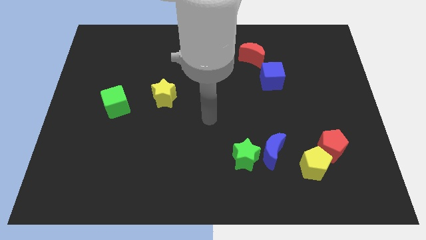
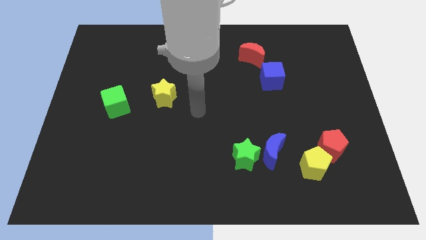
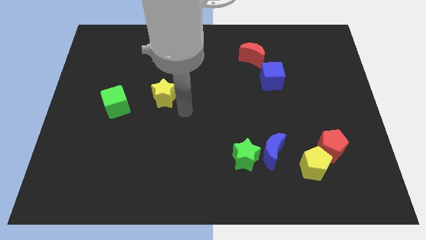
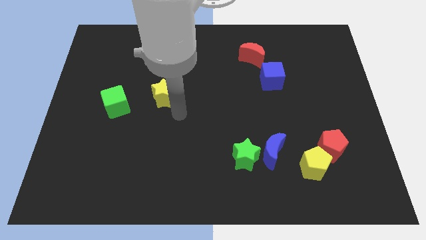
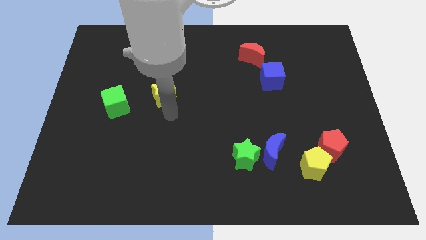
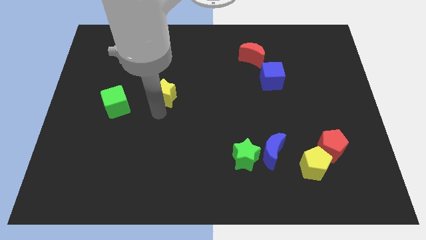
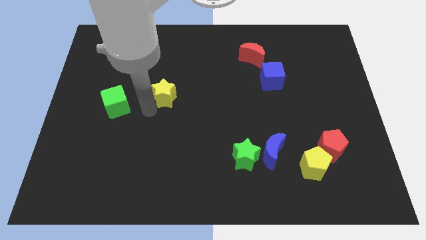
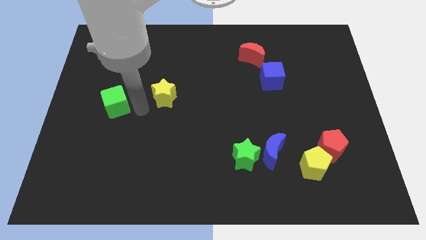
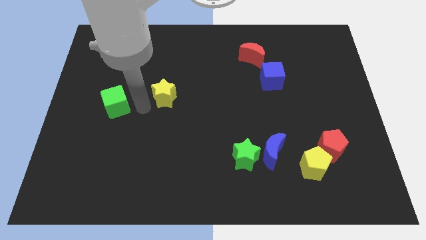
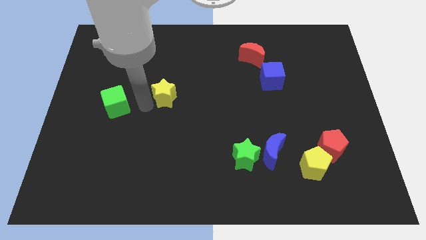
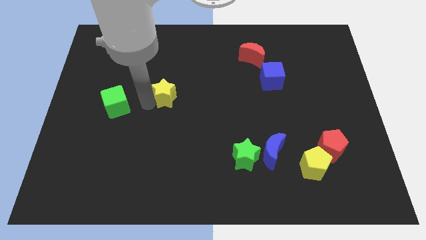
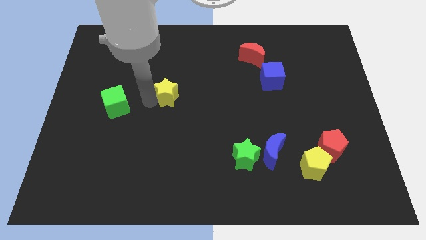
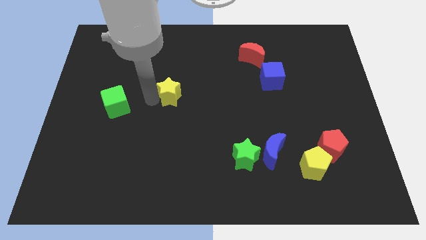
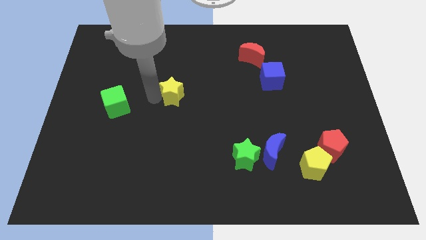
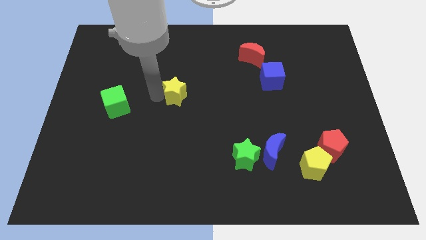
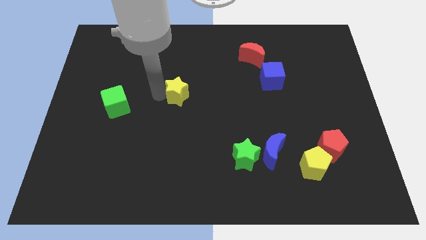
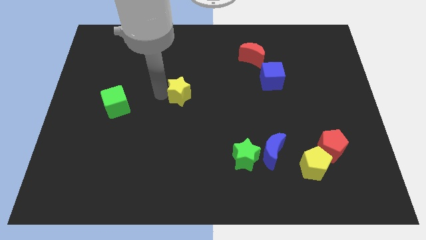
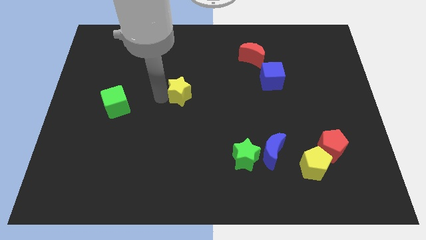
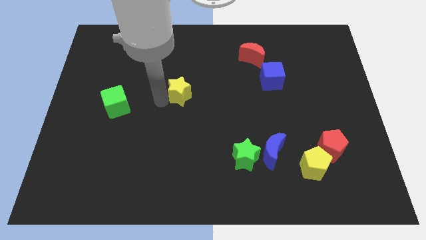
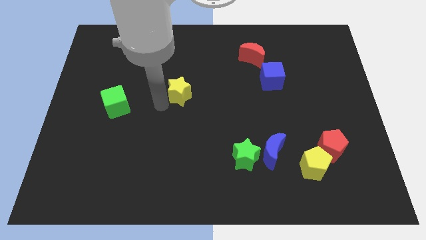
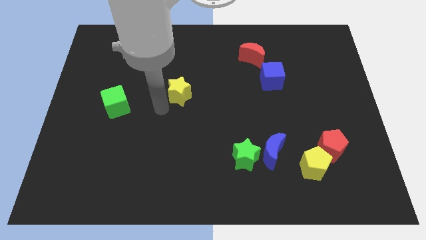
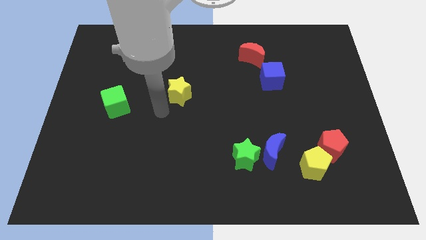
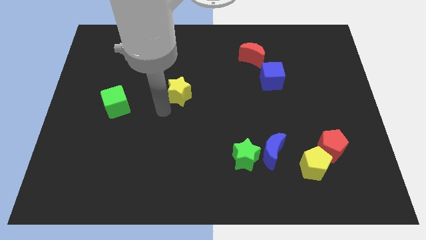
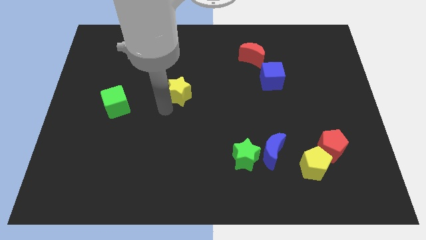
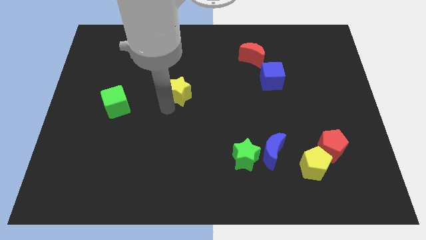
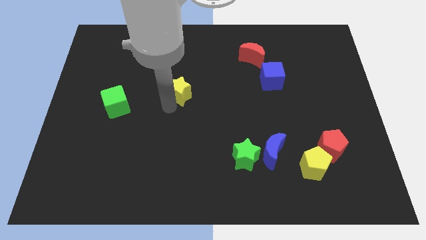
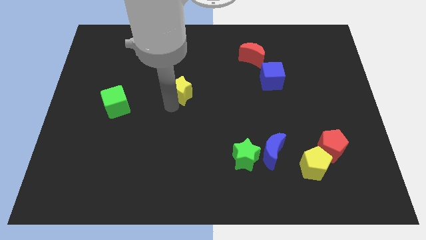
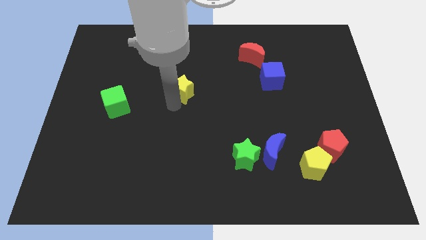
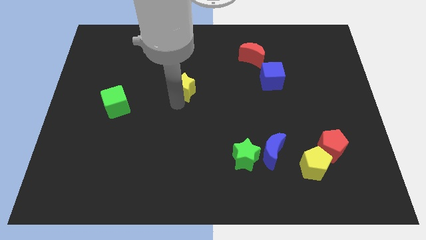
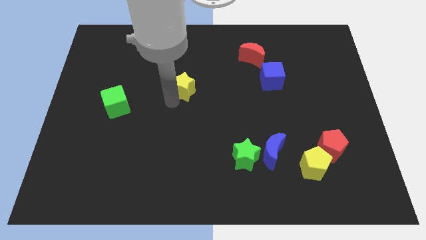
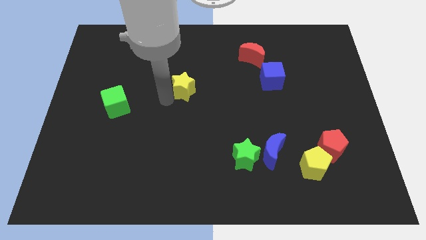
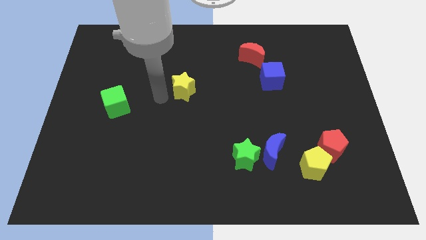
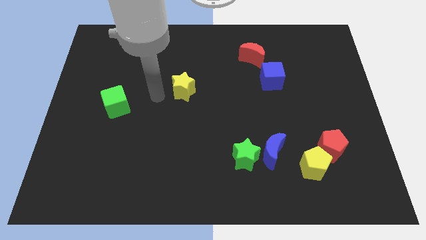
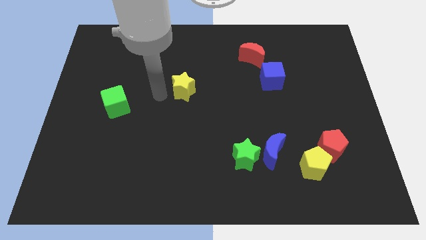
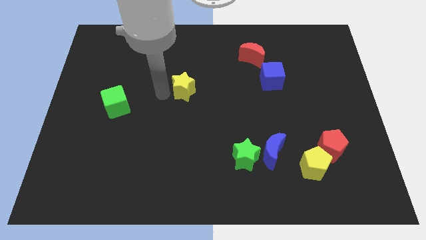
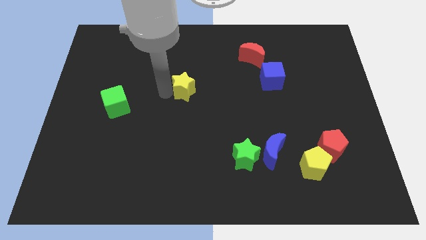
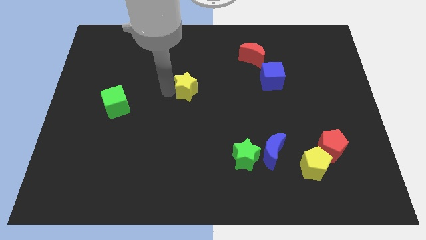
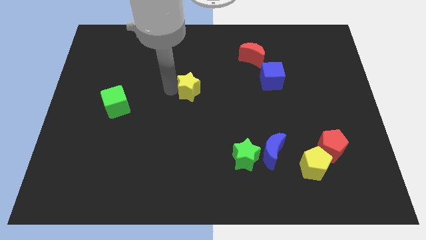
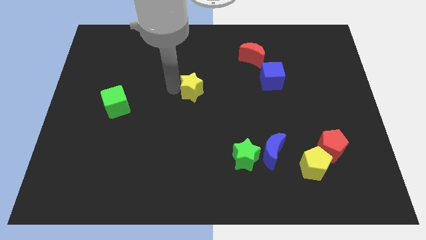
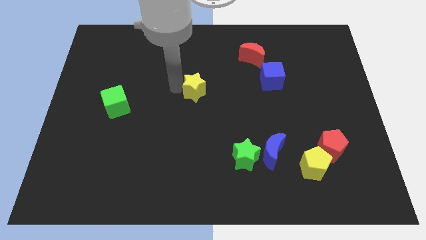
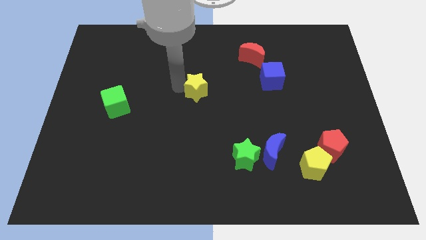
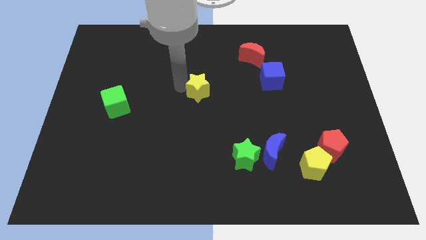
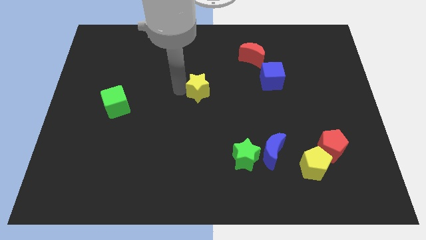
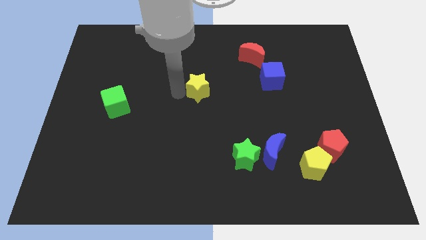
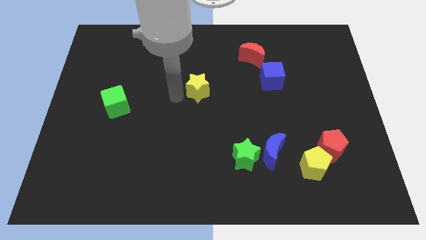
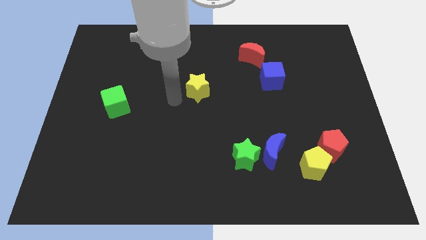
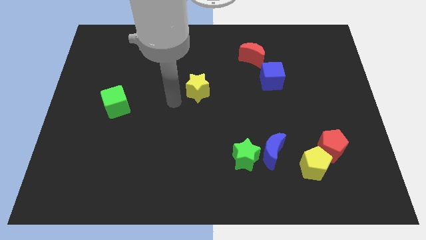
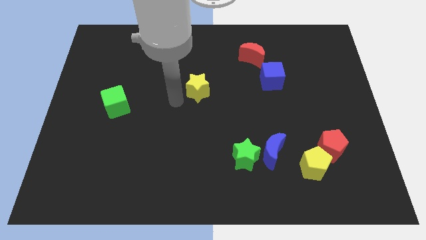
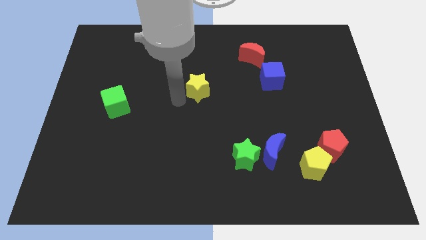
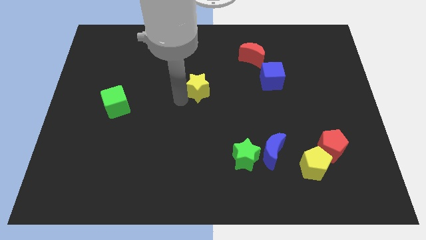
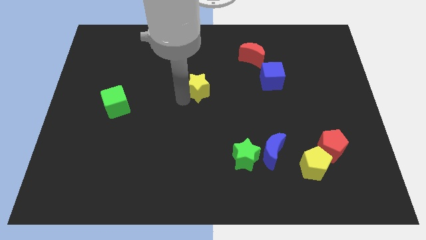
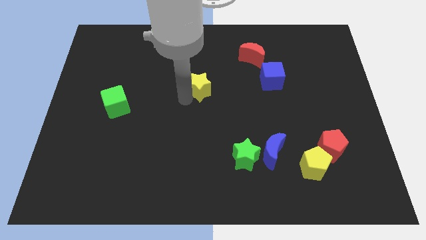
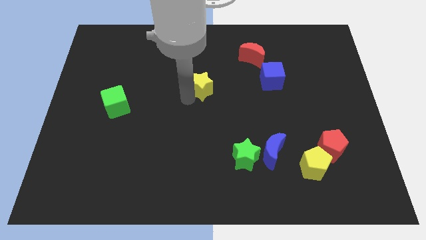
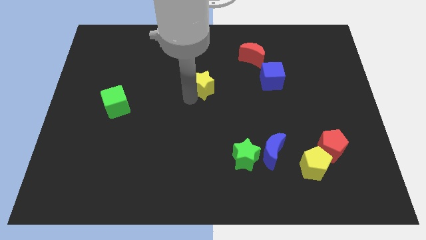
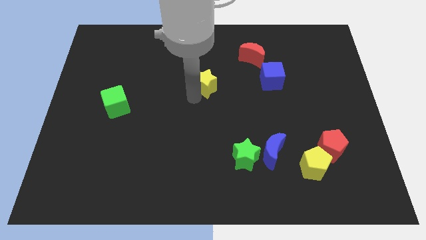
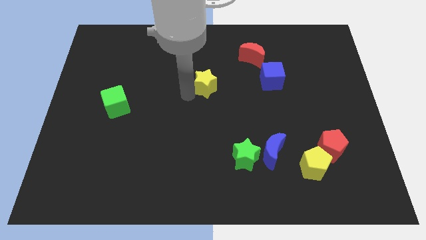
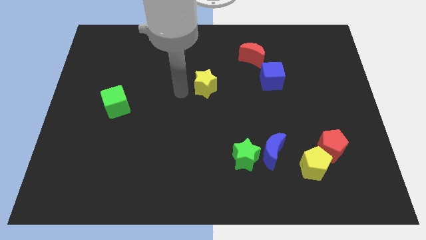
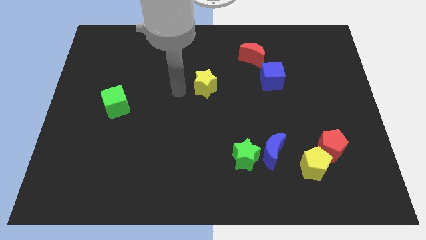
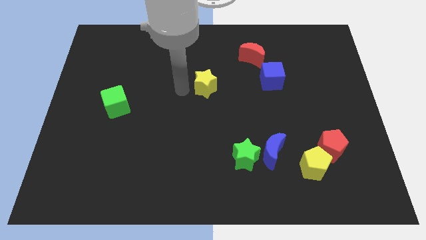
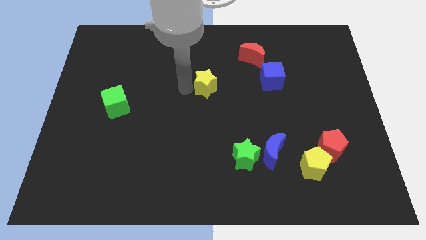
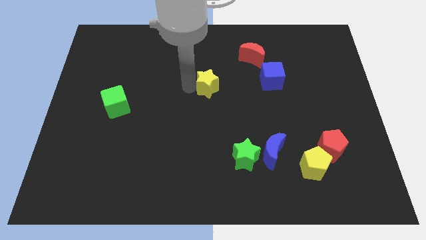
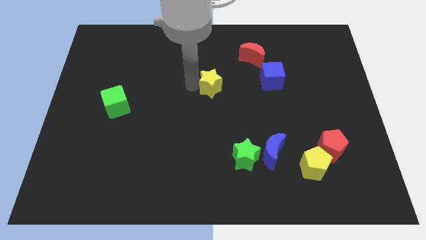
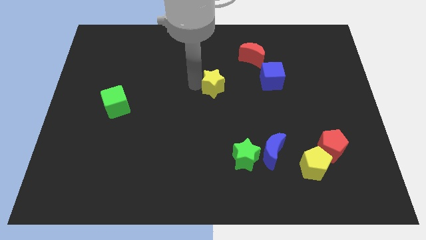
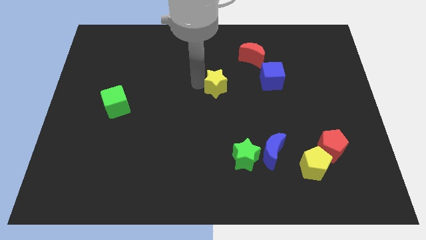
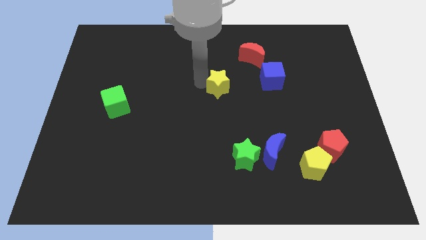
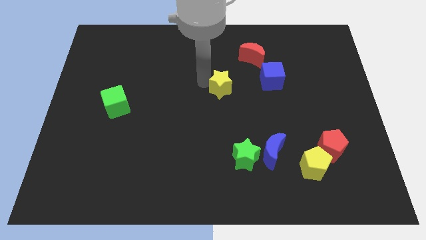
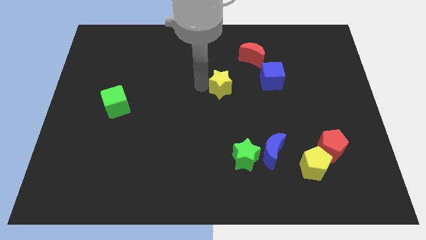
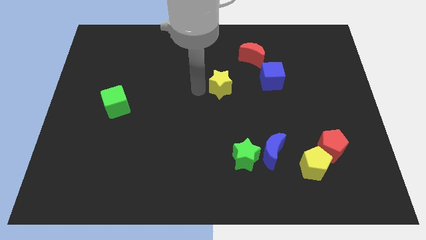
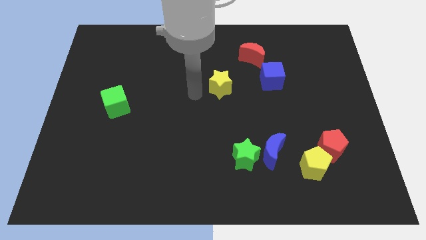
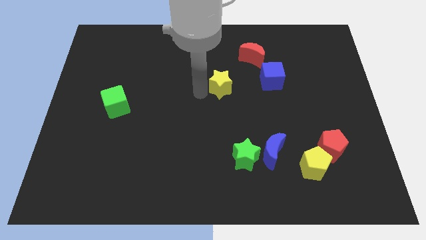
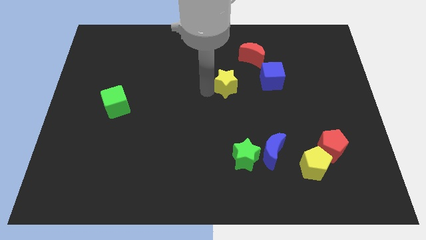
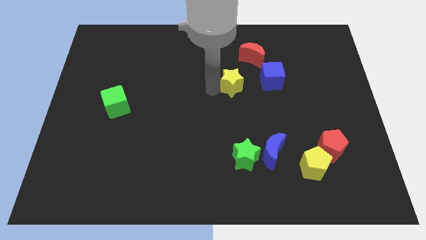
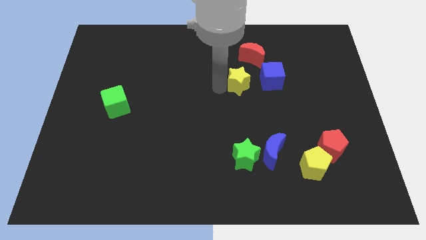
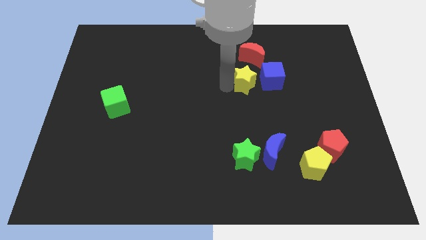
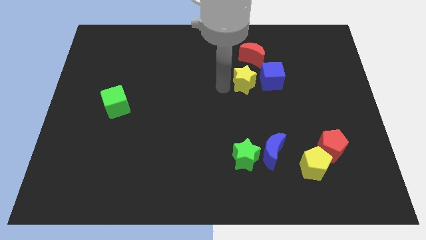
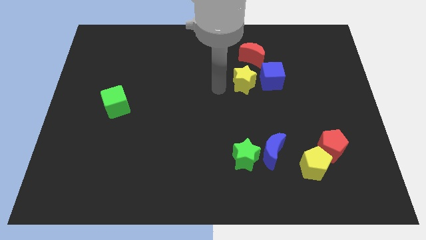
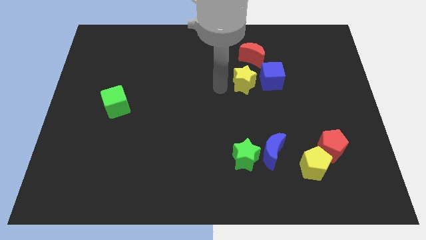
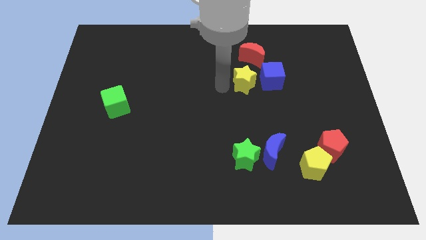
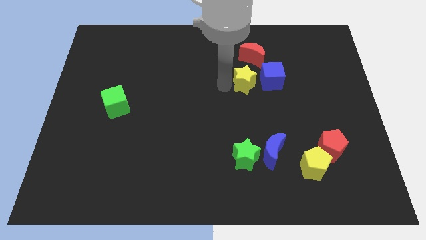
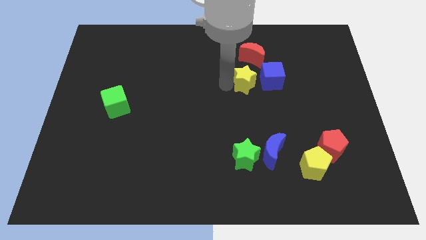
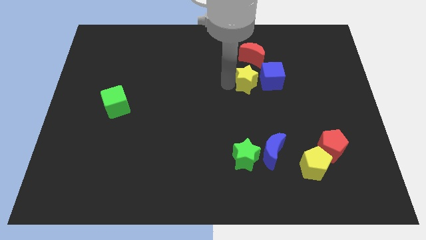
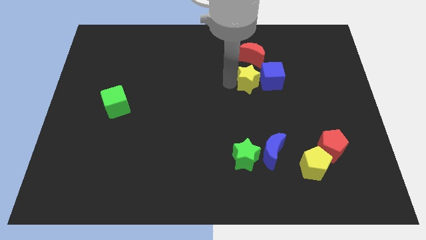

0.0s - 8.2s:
push the yellow star next to the blue cube
